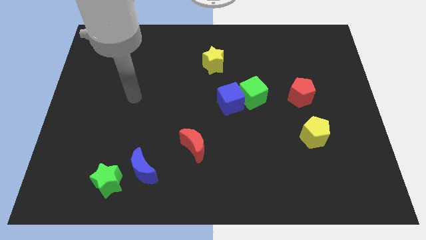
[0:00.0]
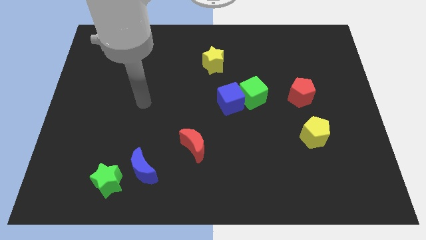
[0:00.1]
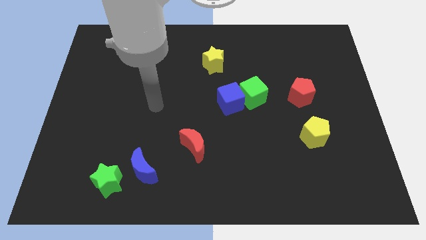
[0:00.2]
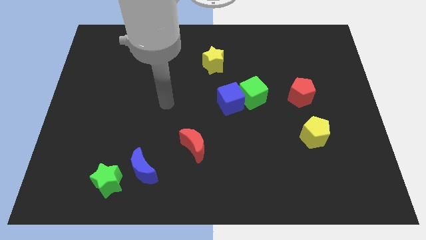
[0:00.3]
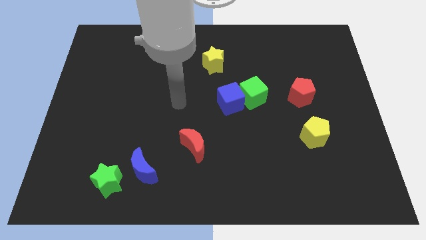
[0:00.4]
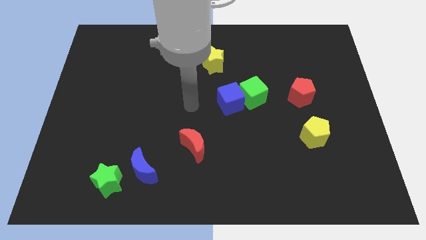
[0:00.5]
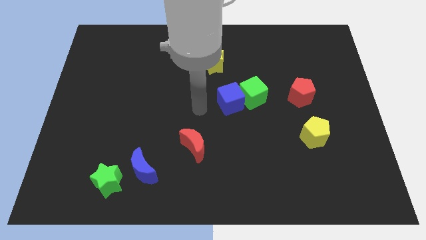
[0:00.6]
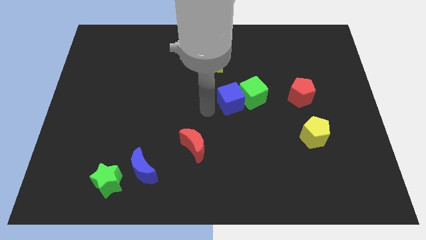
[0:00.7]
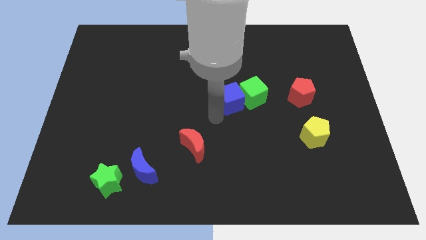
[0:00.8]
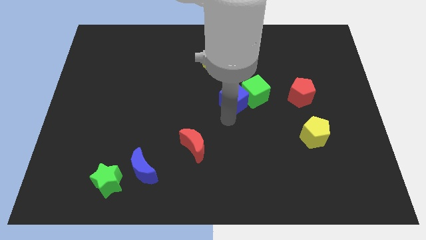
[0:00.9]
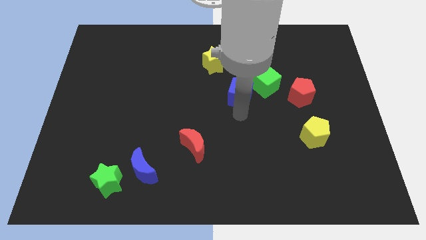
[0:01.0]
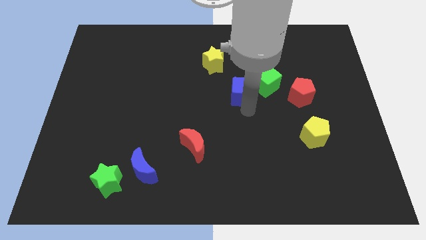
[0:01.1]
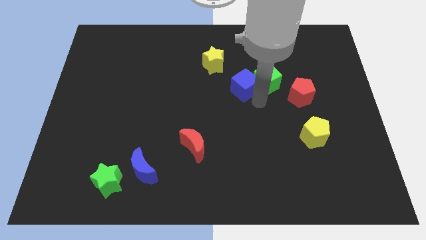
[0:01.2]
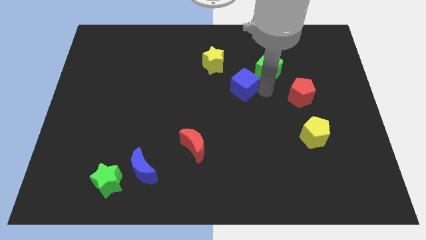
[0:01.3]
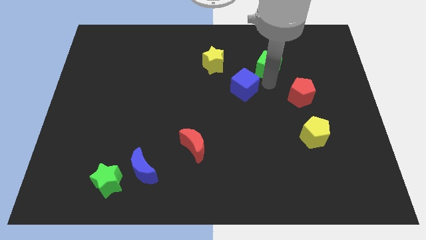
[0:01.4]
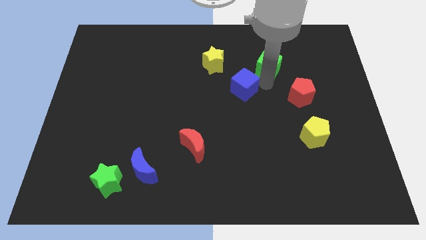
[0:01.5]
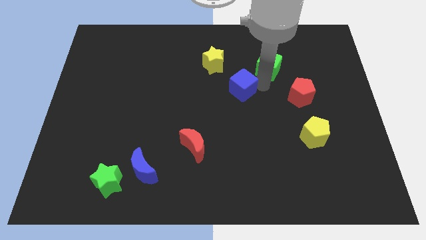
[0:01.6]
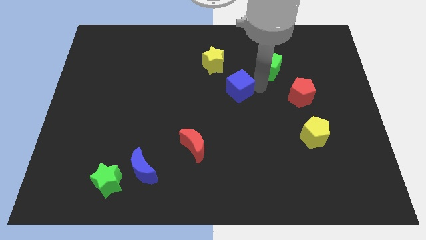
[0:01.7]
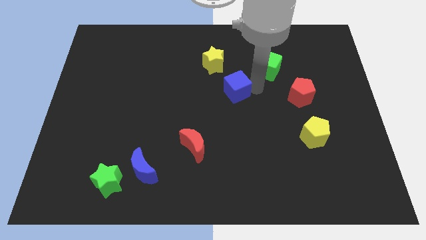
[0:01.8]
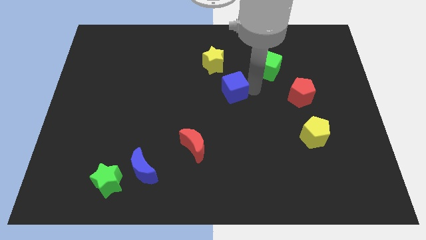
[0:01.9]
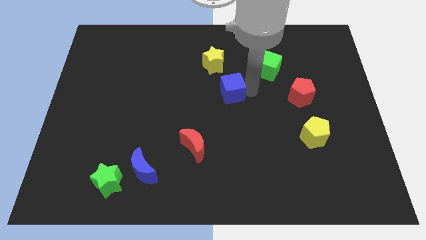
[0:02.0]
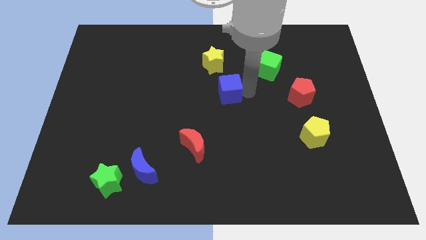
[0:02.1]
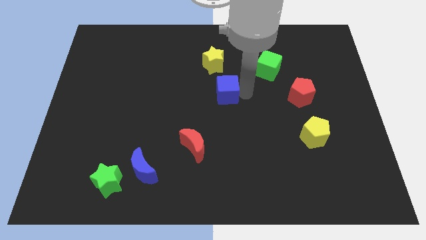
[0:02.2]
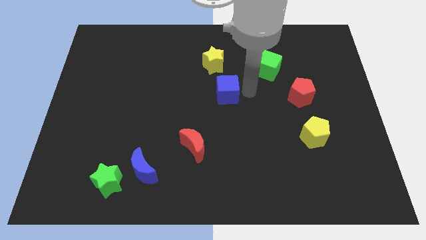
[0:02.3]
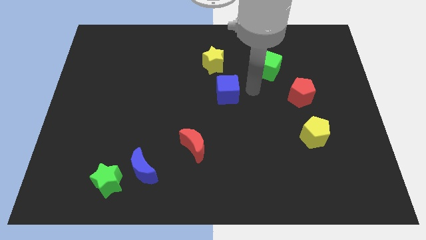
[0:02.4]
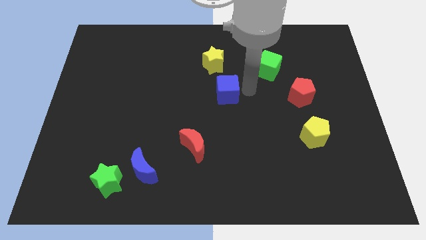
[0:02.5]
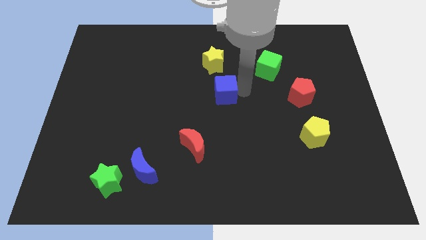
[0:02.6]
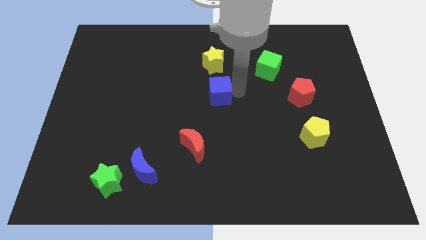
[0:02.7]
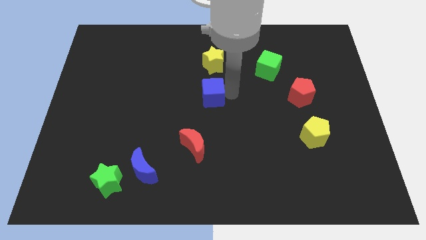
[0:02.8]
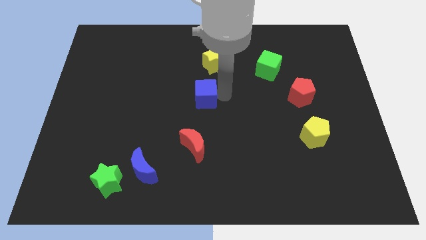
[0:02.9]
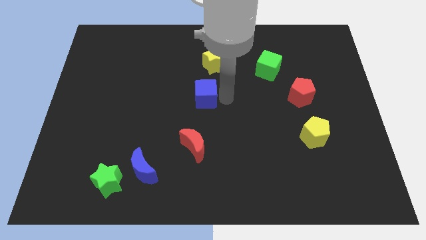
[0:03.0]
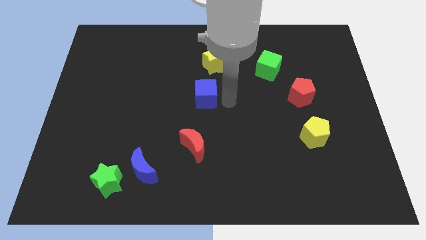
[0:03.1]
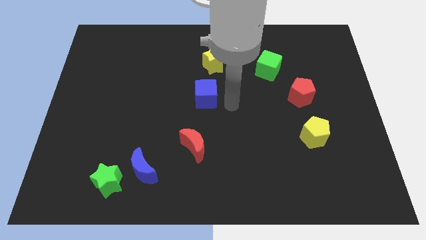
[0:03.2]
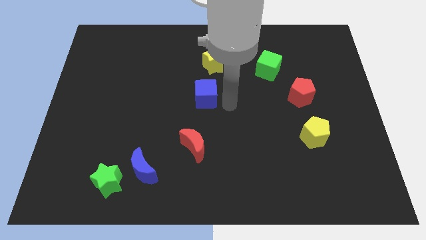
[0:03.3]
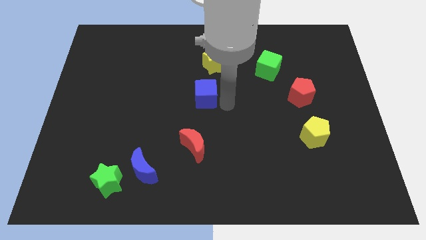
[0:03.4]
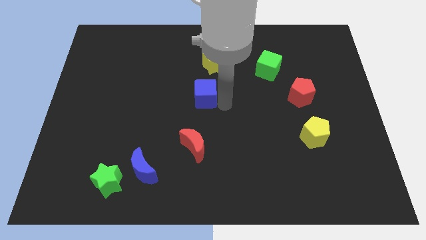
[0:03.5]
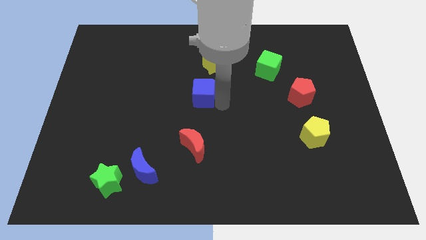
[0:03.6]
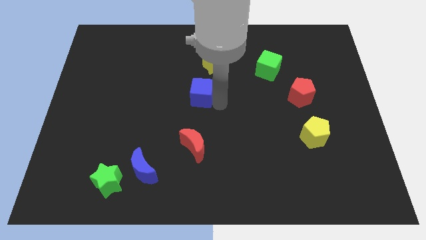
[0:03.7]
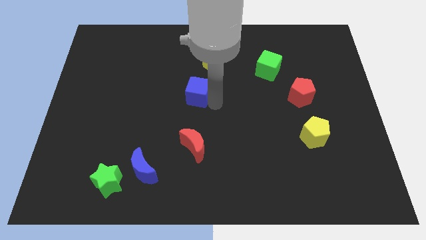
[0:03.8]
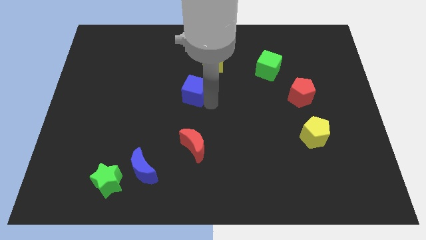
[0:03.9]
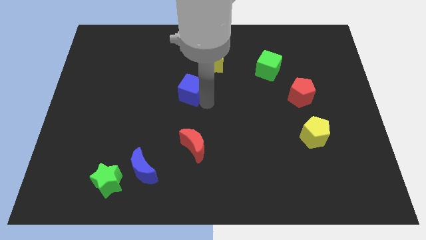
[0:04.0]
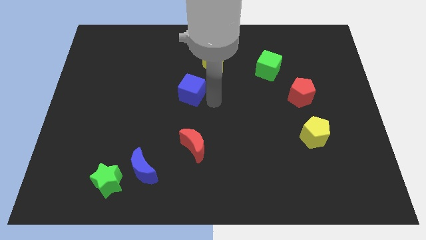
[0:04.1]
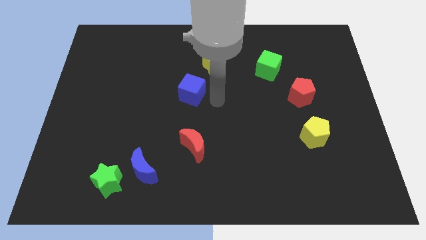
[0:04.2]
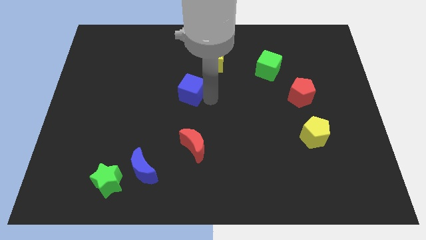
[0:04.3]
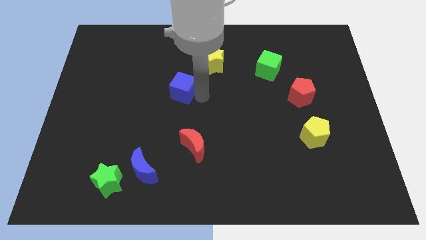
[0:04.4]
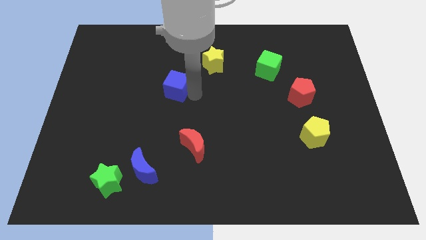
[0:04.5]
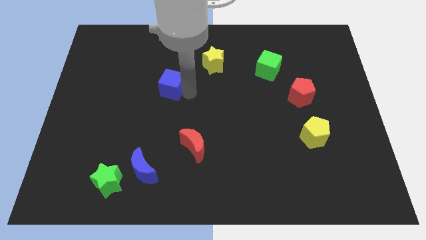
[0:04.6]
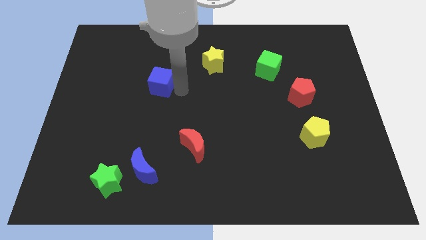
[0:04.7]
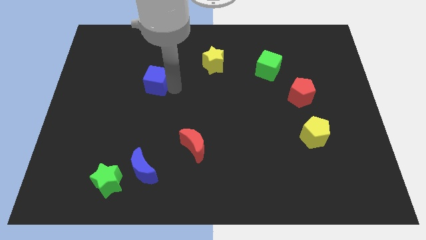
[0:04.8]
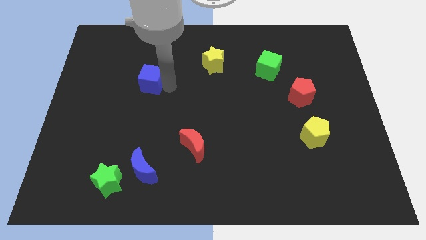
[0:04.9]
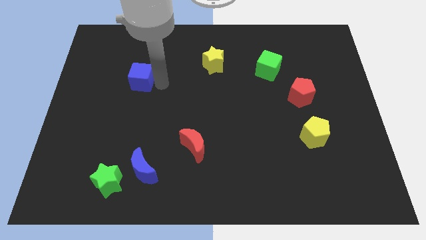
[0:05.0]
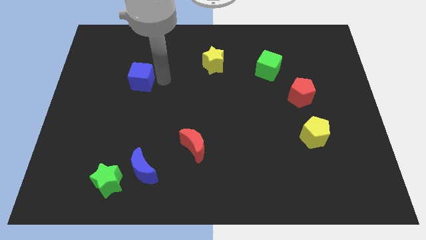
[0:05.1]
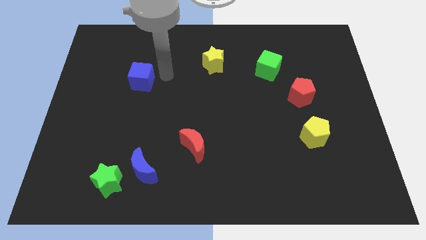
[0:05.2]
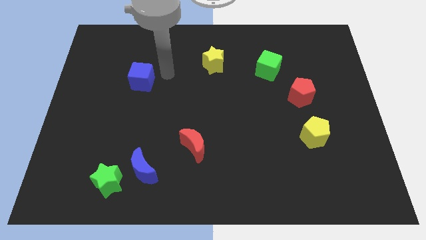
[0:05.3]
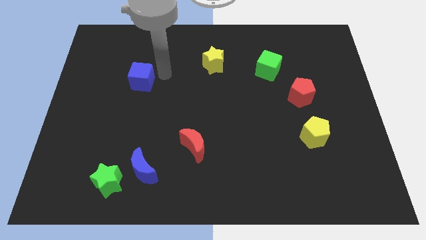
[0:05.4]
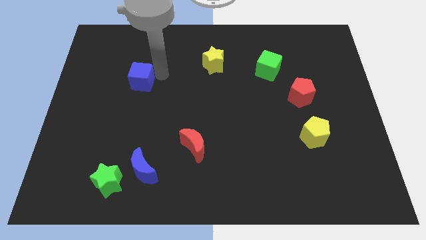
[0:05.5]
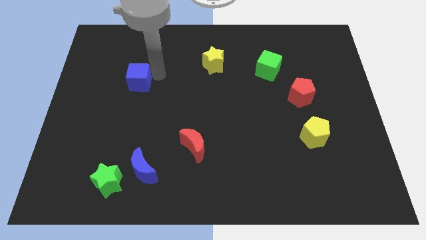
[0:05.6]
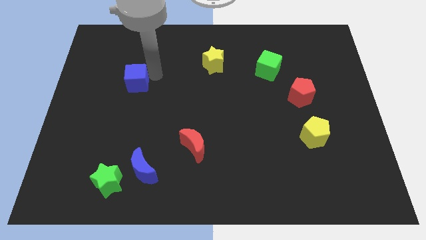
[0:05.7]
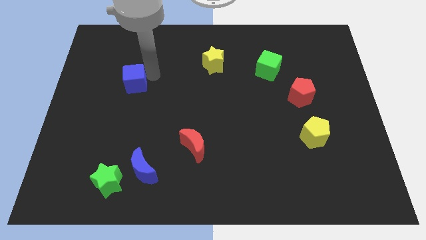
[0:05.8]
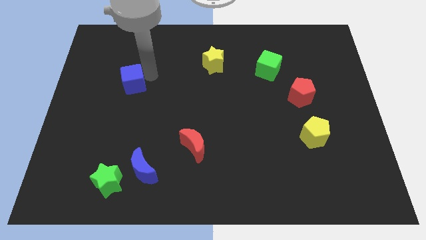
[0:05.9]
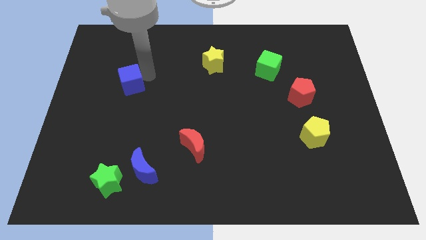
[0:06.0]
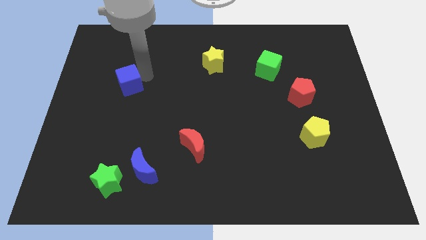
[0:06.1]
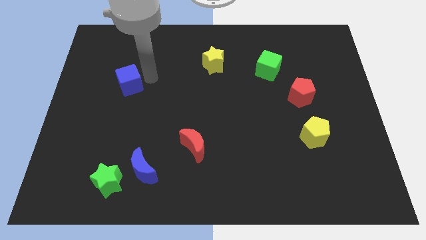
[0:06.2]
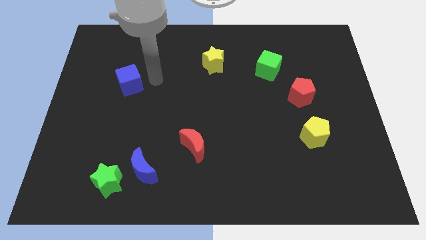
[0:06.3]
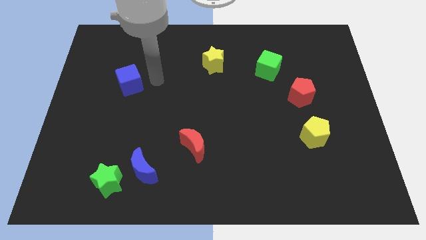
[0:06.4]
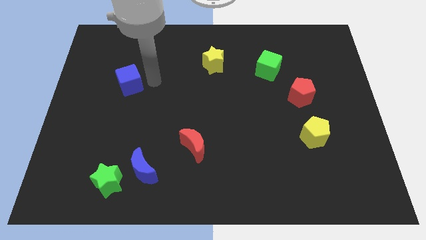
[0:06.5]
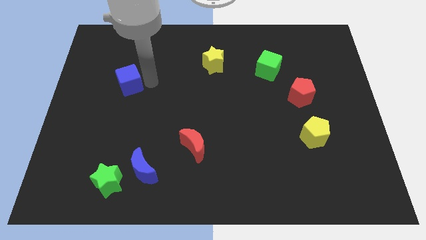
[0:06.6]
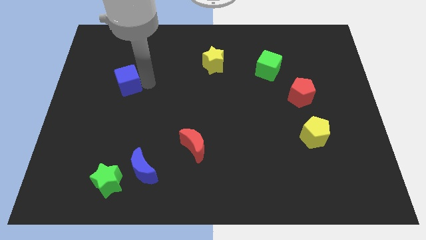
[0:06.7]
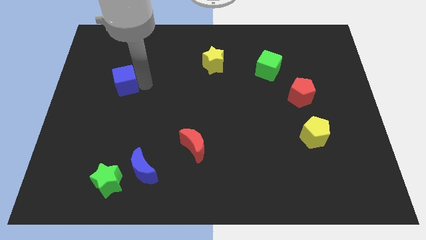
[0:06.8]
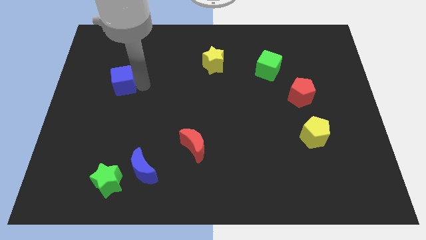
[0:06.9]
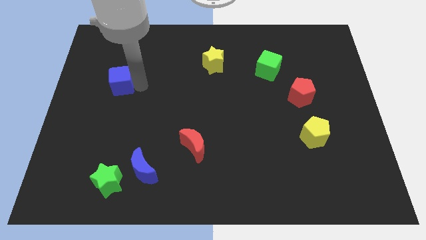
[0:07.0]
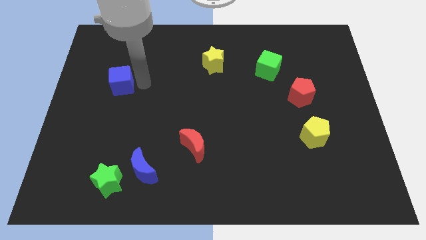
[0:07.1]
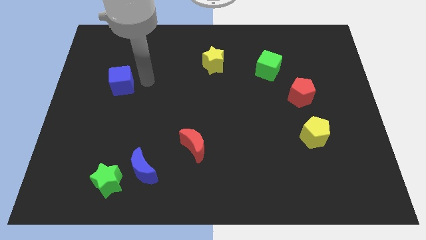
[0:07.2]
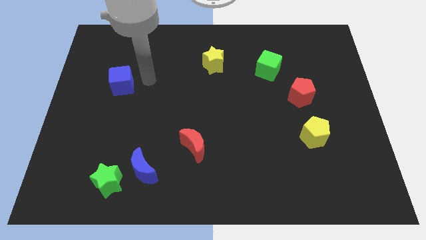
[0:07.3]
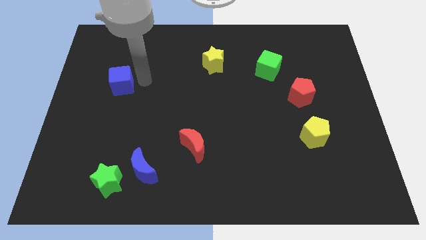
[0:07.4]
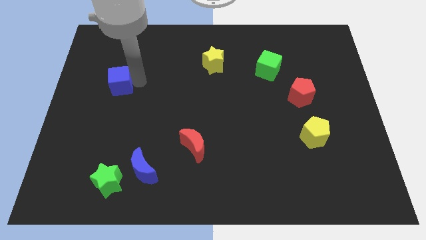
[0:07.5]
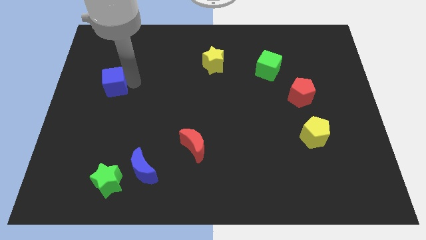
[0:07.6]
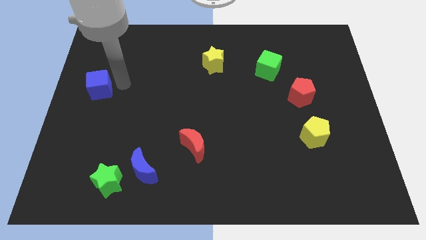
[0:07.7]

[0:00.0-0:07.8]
put the blue cube to the left side
